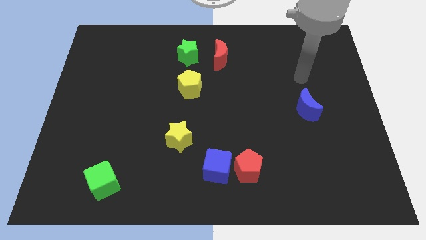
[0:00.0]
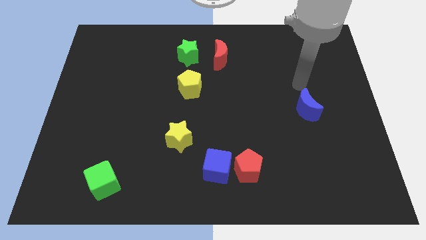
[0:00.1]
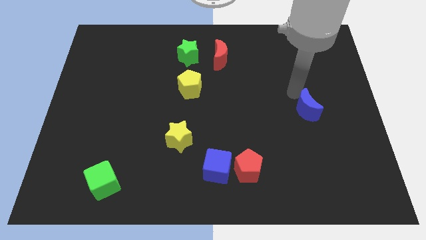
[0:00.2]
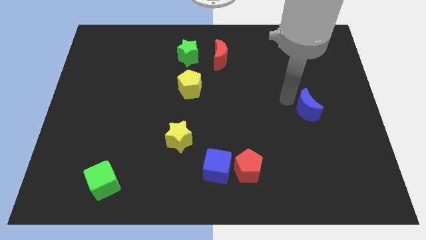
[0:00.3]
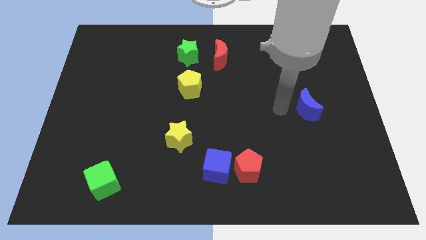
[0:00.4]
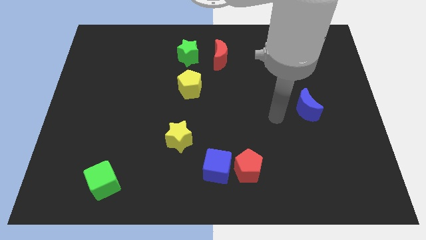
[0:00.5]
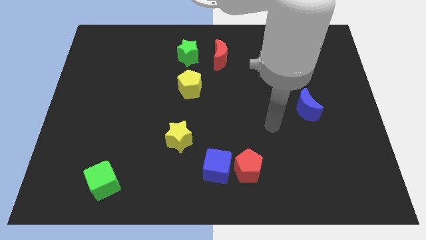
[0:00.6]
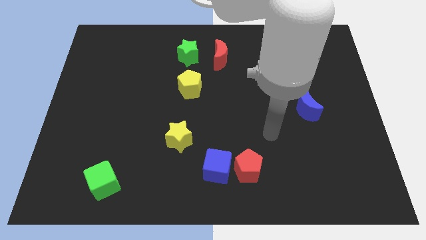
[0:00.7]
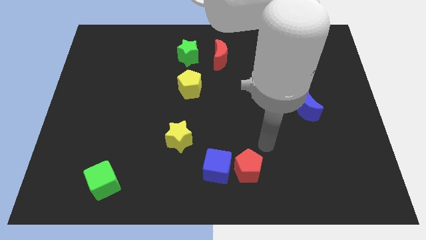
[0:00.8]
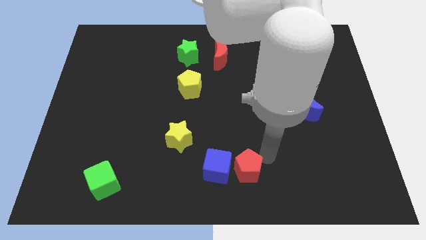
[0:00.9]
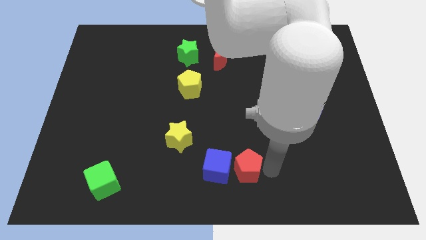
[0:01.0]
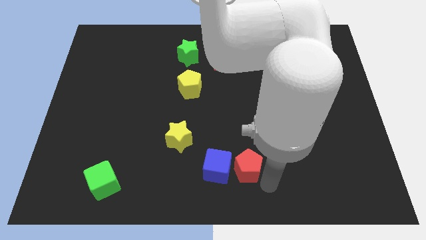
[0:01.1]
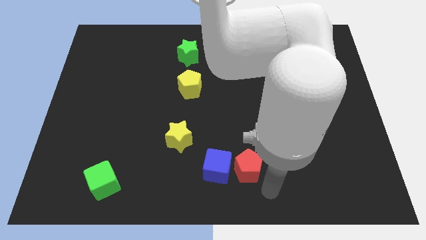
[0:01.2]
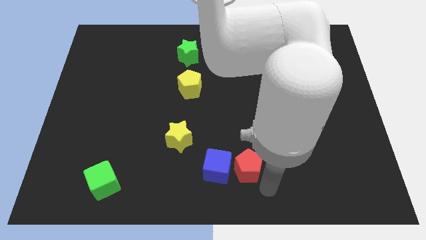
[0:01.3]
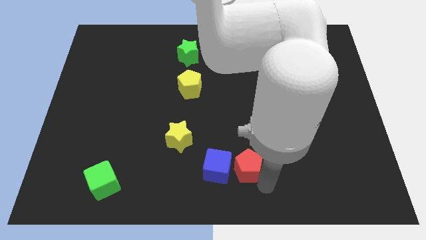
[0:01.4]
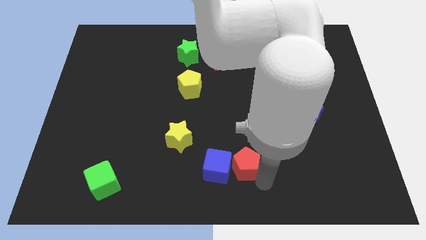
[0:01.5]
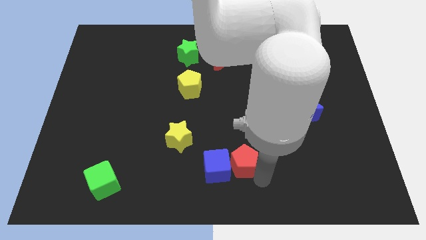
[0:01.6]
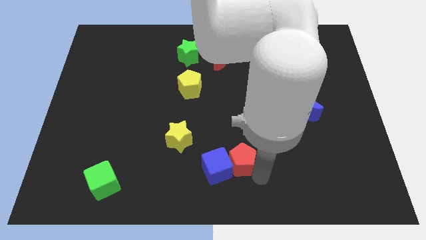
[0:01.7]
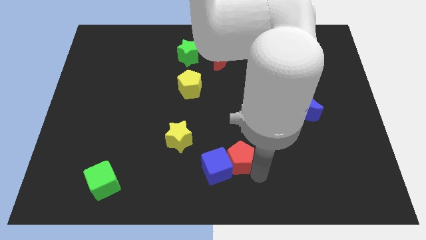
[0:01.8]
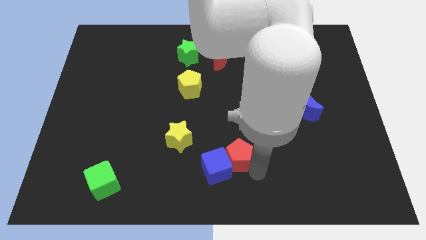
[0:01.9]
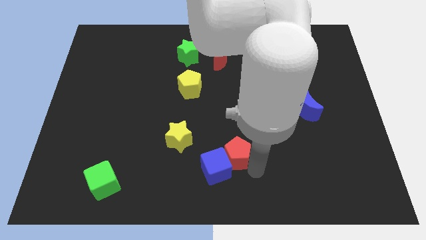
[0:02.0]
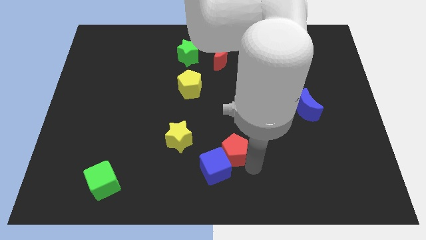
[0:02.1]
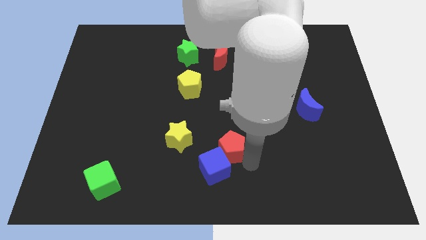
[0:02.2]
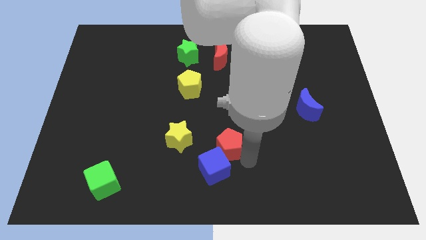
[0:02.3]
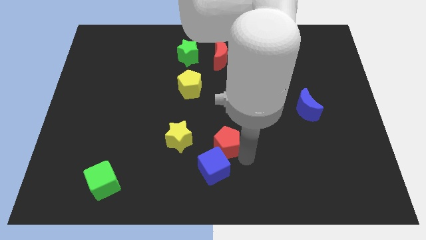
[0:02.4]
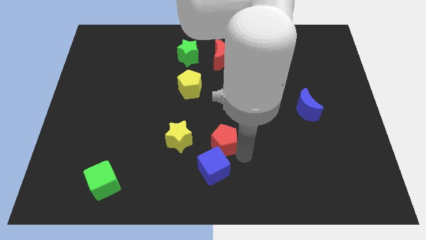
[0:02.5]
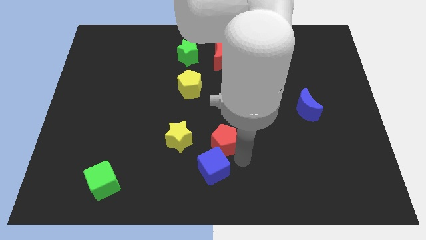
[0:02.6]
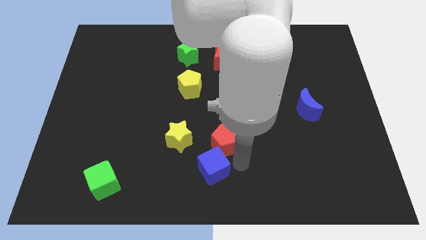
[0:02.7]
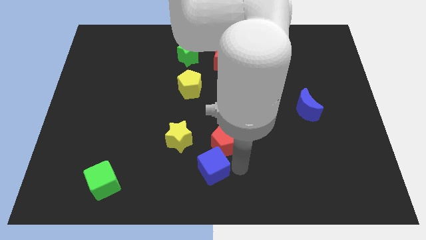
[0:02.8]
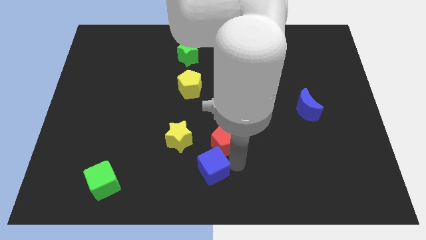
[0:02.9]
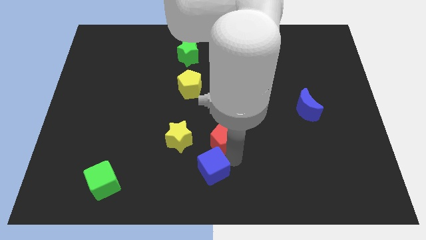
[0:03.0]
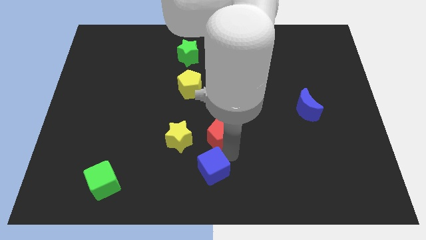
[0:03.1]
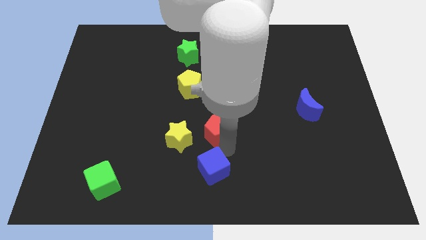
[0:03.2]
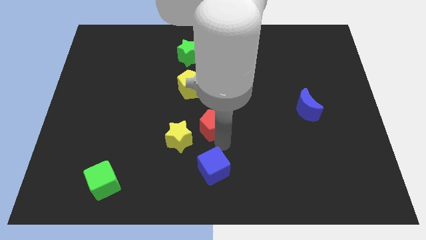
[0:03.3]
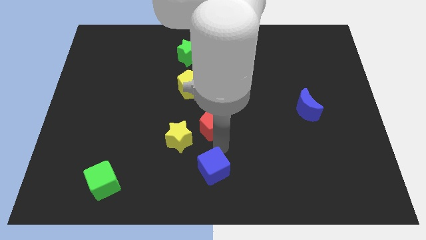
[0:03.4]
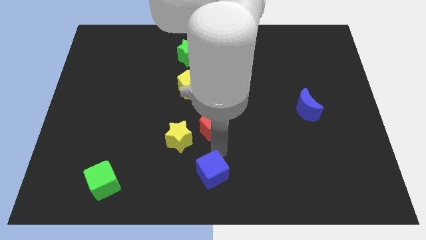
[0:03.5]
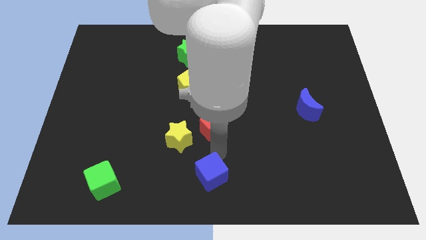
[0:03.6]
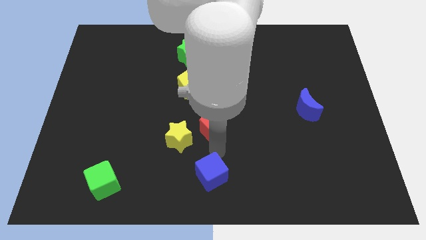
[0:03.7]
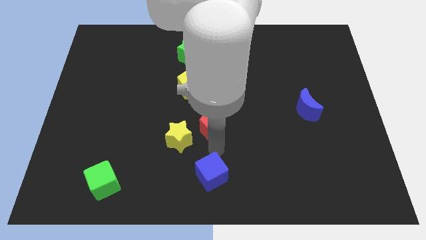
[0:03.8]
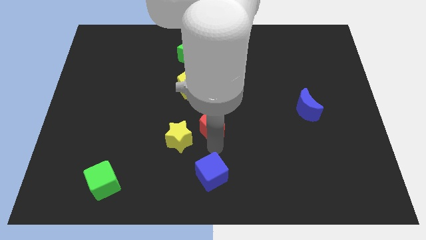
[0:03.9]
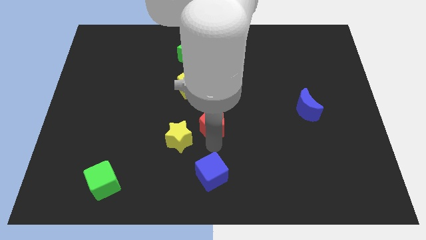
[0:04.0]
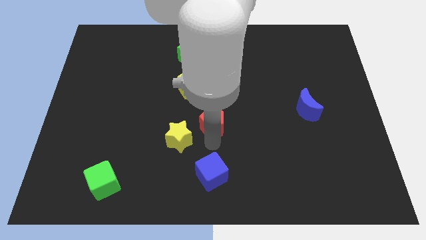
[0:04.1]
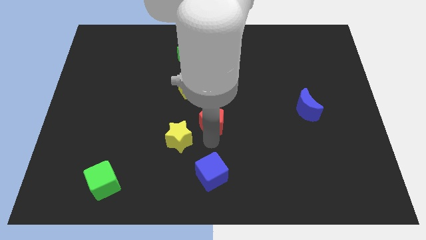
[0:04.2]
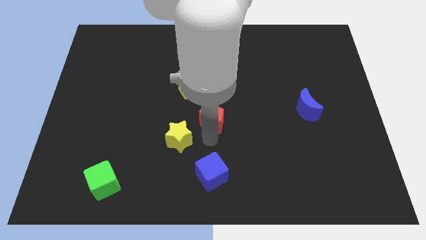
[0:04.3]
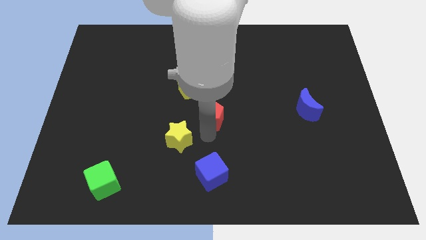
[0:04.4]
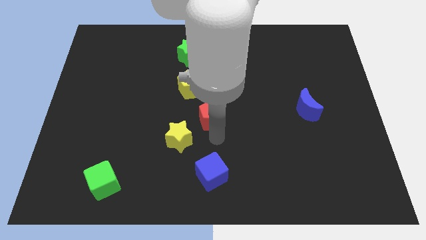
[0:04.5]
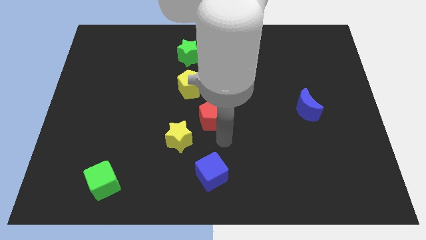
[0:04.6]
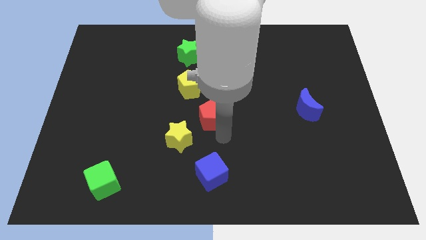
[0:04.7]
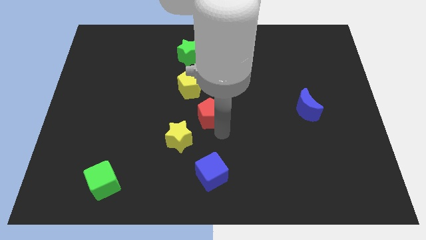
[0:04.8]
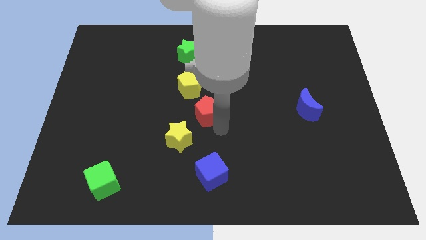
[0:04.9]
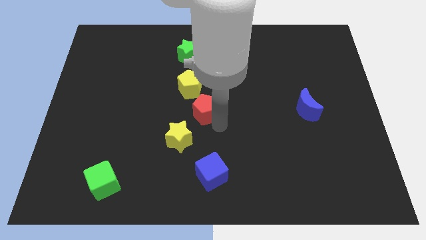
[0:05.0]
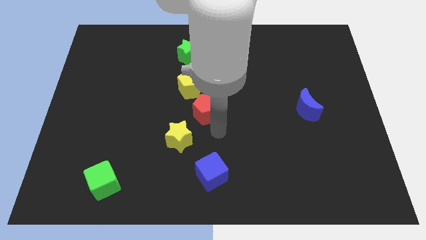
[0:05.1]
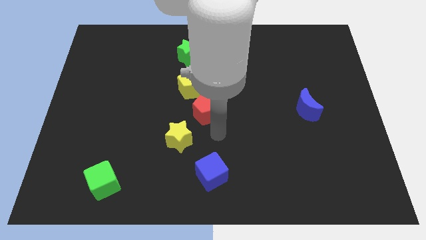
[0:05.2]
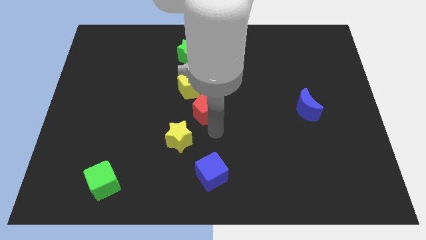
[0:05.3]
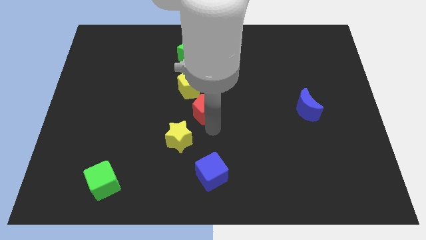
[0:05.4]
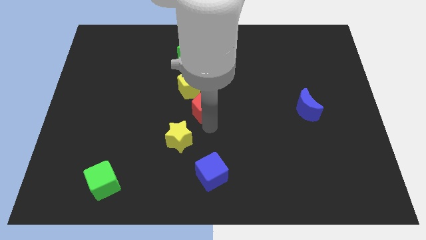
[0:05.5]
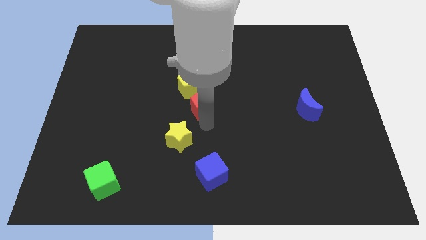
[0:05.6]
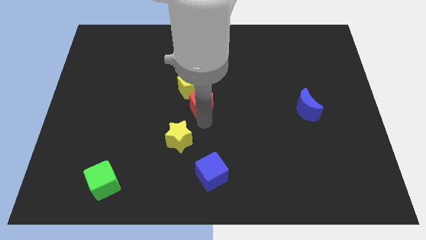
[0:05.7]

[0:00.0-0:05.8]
slide the red pentagon towards the yellow pentagon

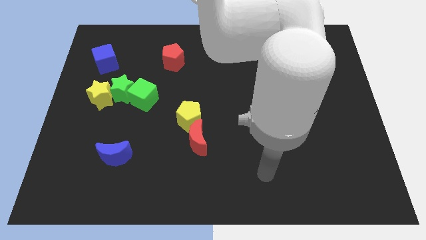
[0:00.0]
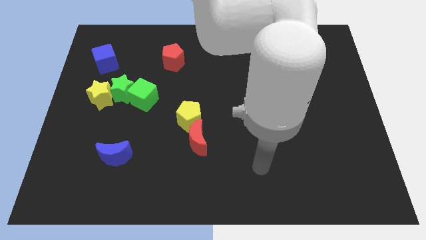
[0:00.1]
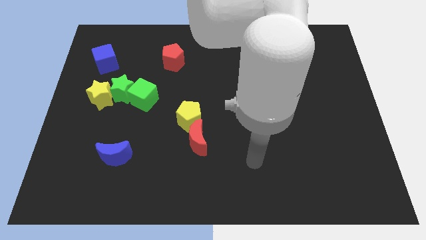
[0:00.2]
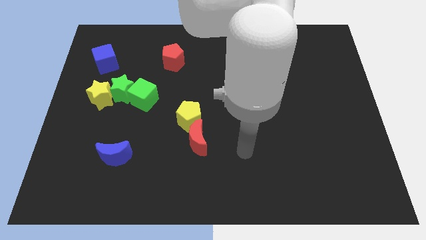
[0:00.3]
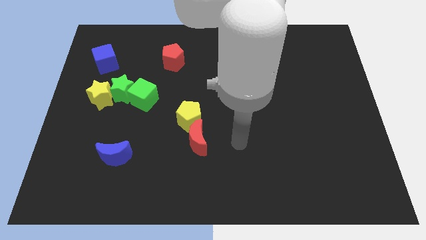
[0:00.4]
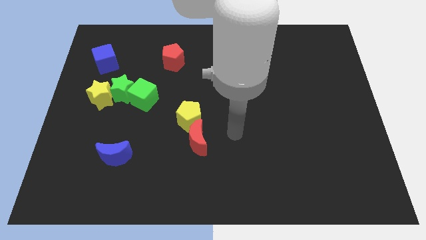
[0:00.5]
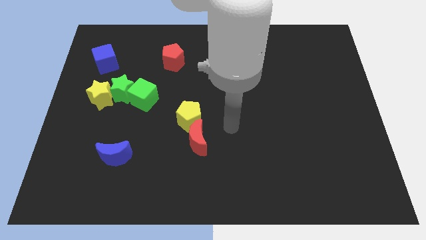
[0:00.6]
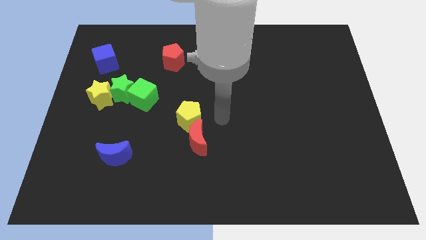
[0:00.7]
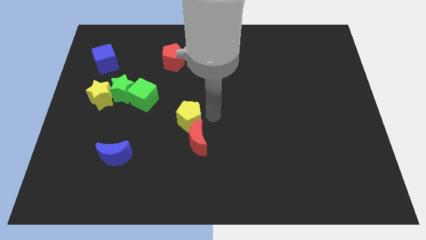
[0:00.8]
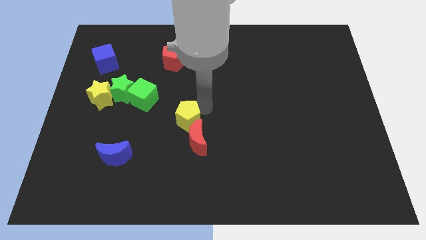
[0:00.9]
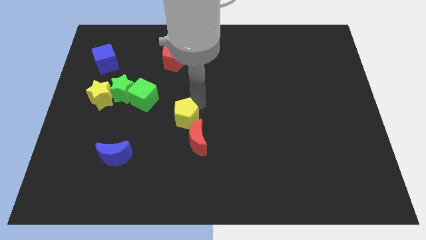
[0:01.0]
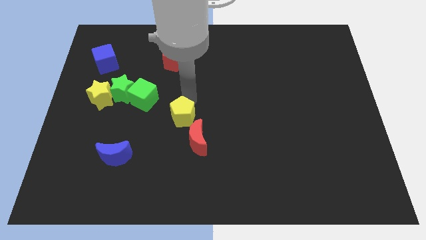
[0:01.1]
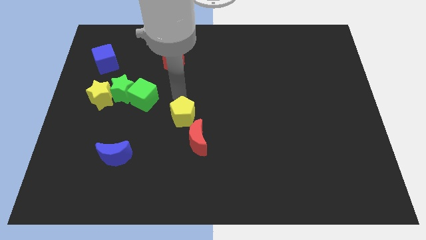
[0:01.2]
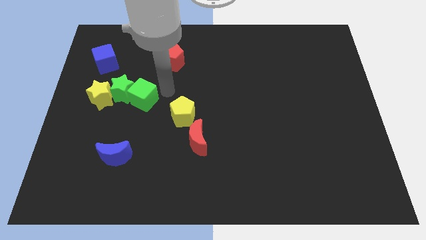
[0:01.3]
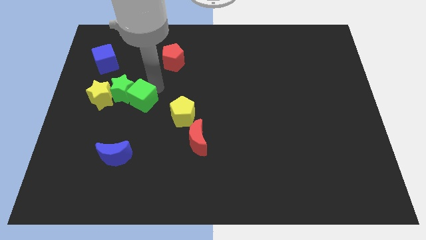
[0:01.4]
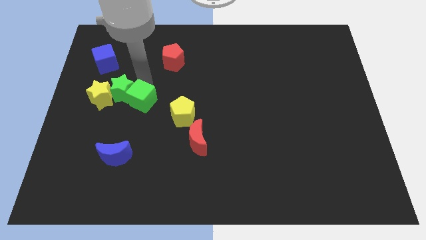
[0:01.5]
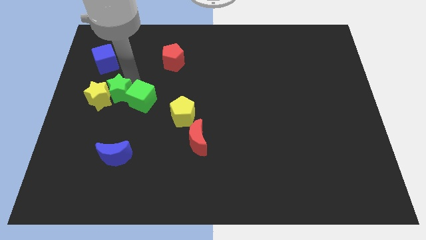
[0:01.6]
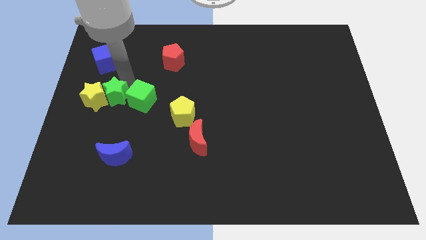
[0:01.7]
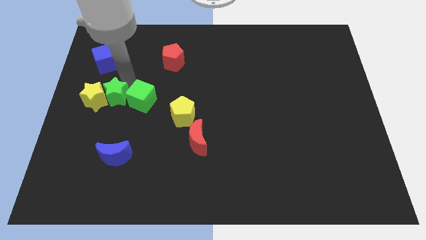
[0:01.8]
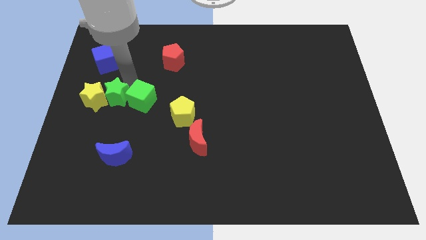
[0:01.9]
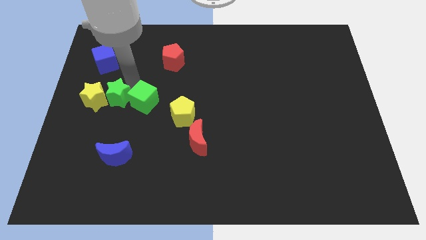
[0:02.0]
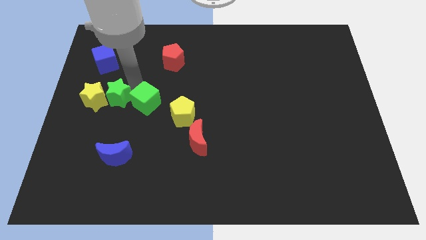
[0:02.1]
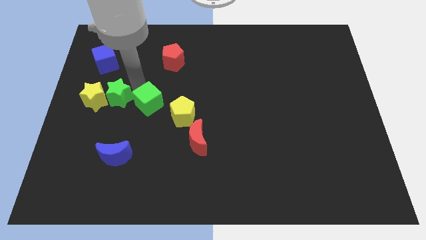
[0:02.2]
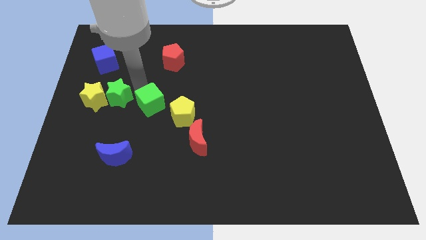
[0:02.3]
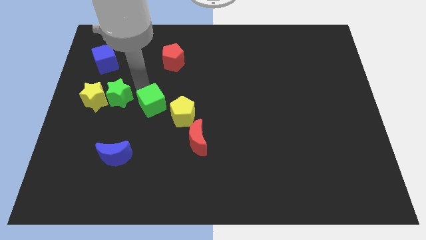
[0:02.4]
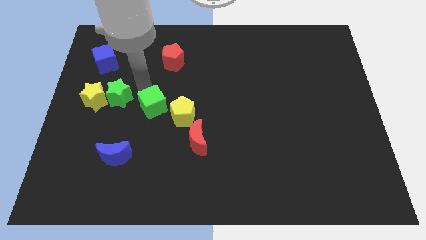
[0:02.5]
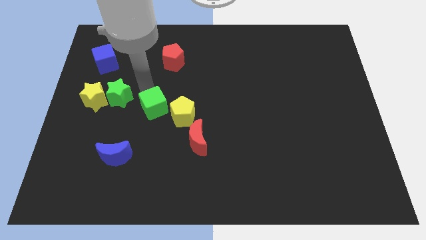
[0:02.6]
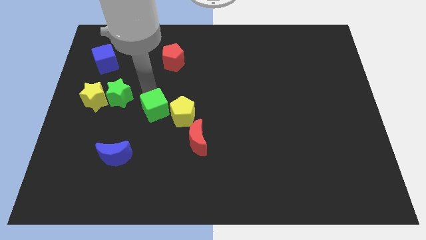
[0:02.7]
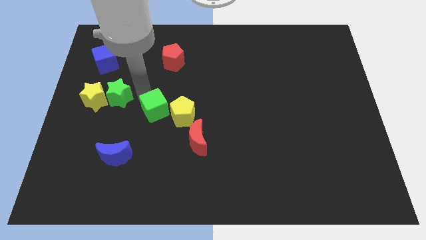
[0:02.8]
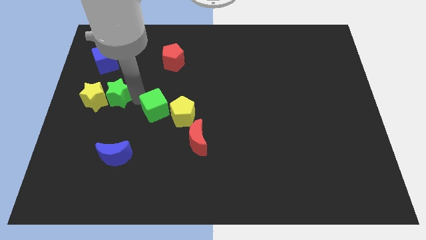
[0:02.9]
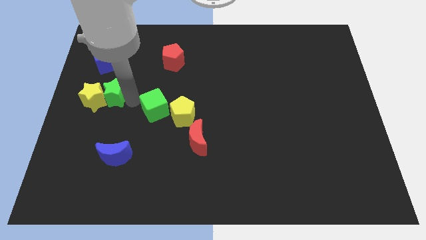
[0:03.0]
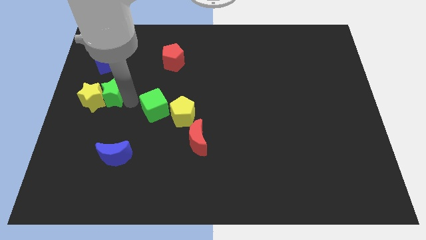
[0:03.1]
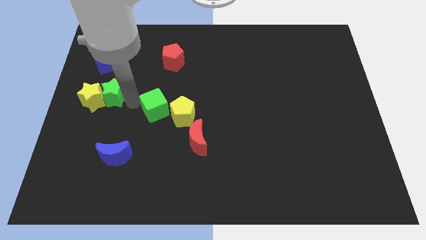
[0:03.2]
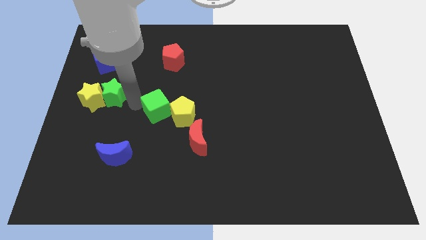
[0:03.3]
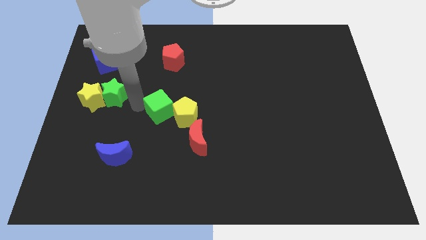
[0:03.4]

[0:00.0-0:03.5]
put the green cube next to the yellow pentagon
